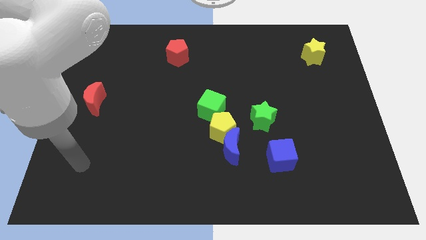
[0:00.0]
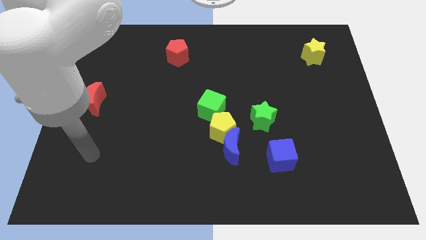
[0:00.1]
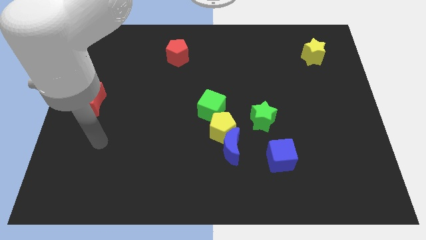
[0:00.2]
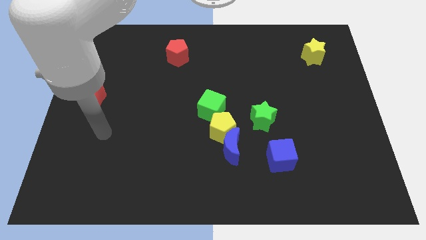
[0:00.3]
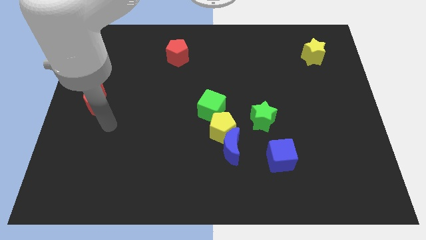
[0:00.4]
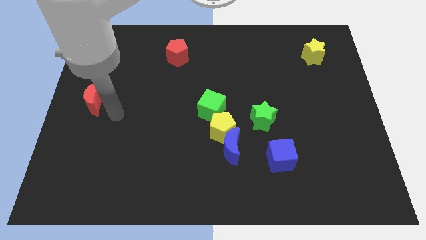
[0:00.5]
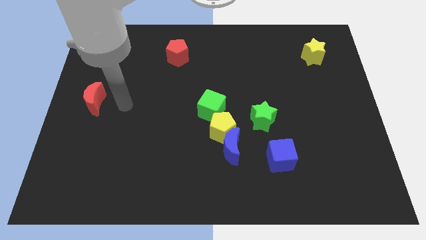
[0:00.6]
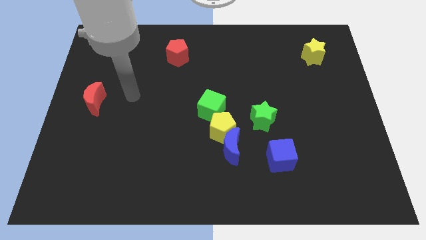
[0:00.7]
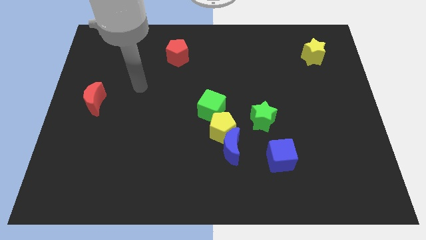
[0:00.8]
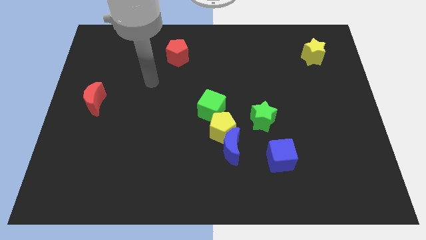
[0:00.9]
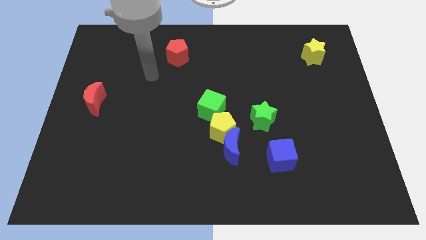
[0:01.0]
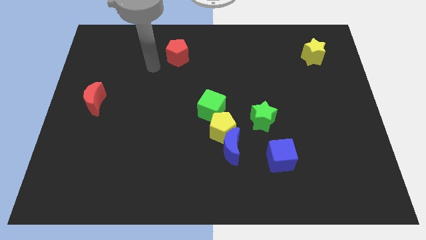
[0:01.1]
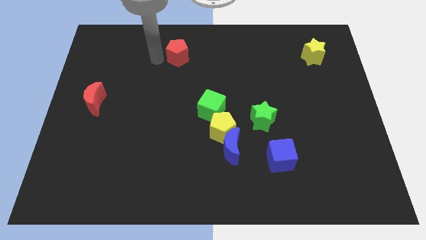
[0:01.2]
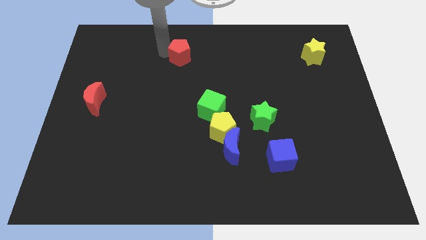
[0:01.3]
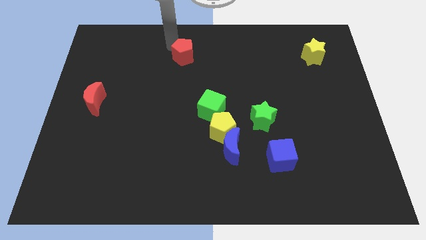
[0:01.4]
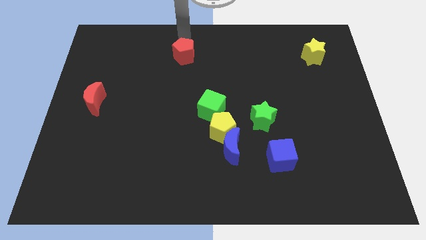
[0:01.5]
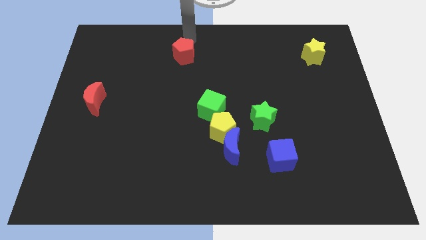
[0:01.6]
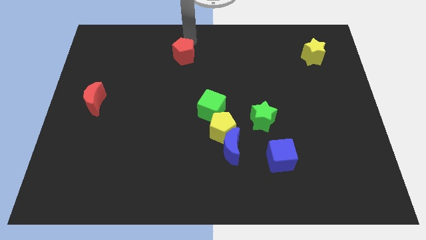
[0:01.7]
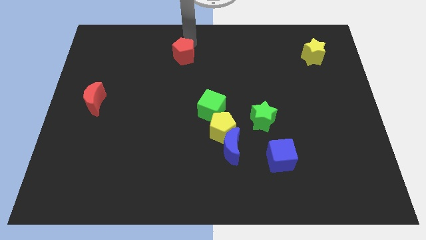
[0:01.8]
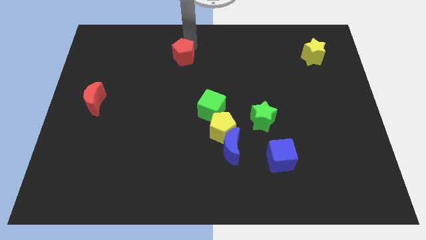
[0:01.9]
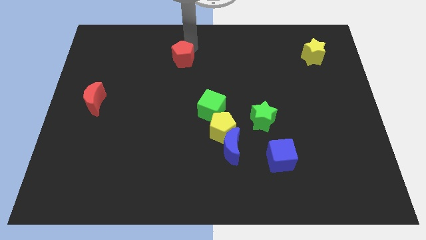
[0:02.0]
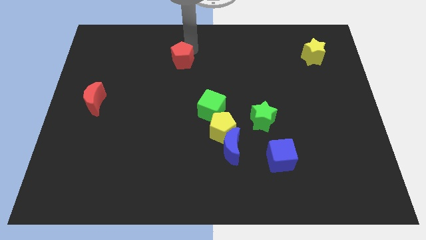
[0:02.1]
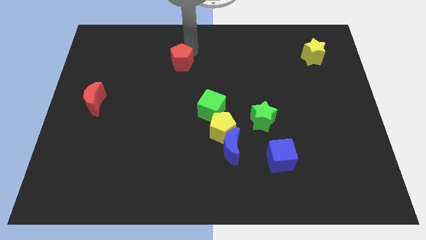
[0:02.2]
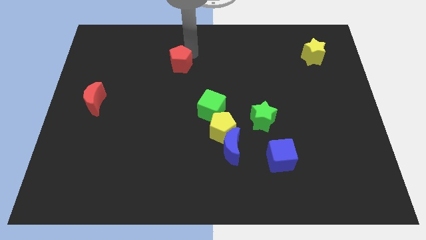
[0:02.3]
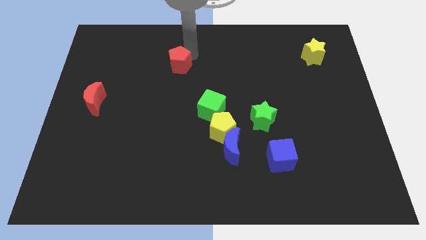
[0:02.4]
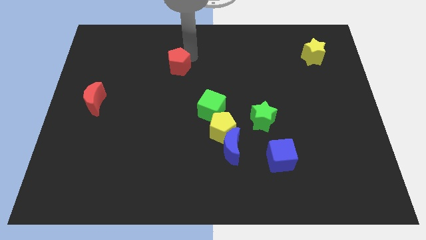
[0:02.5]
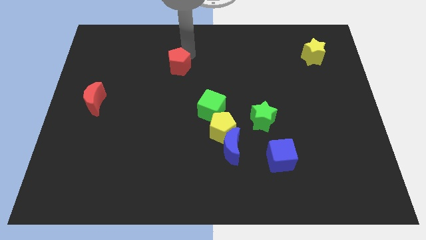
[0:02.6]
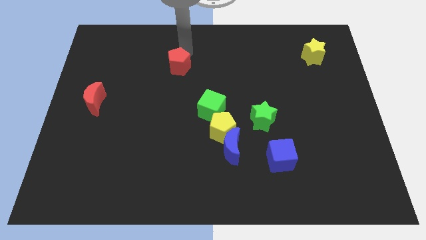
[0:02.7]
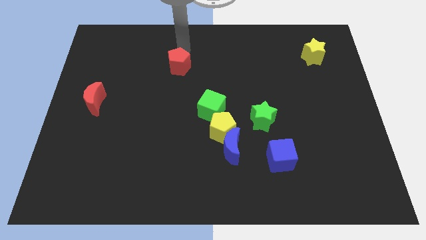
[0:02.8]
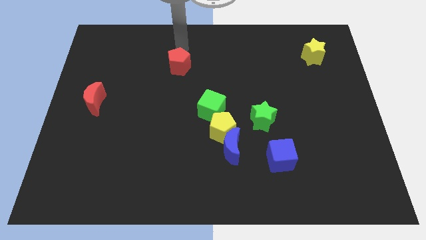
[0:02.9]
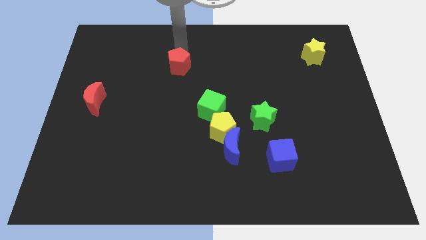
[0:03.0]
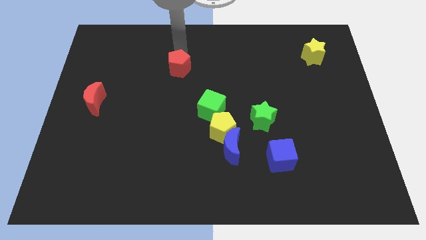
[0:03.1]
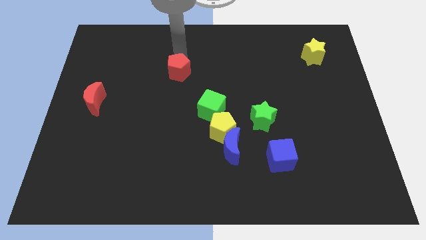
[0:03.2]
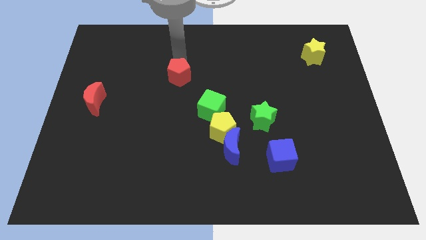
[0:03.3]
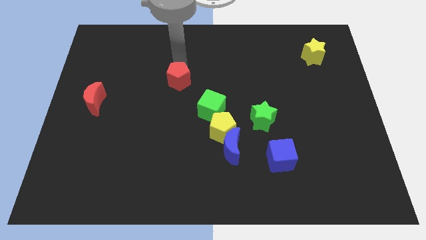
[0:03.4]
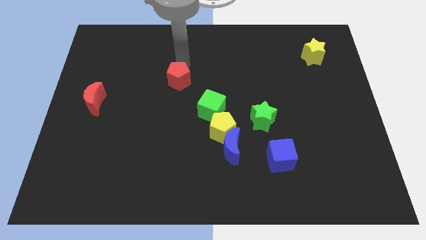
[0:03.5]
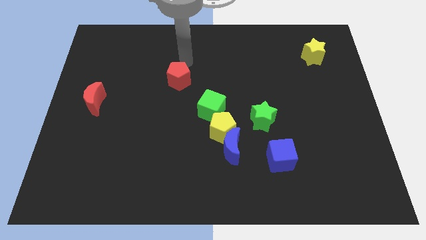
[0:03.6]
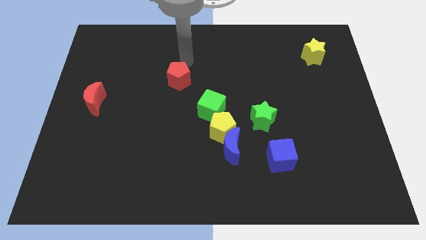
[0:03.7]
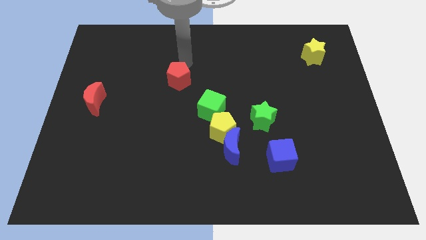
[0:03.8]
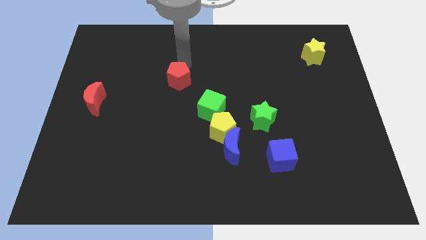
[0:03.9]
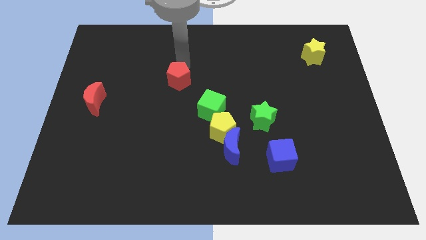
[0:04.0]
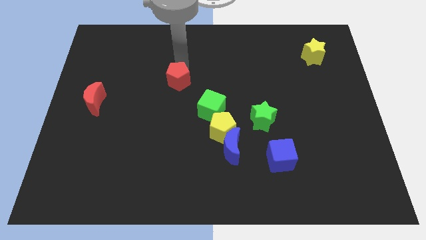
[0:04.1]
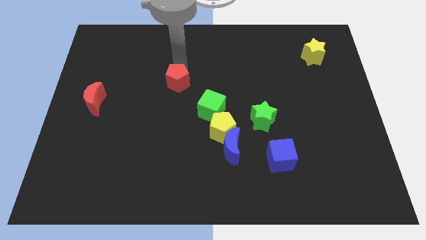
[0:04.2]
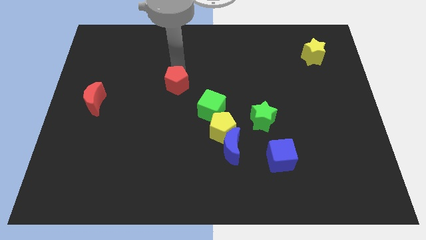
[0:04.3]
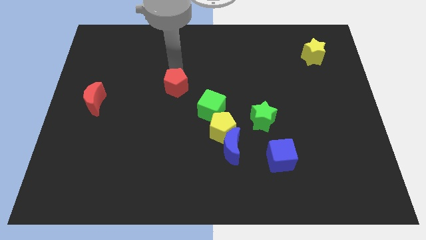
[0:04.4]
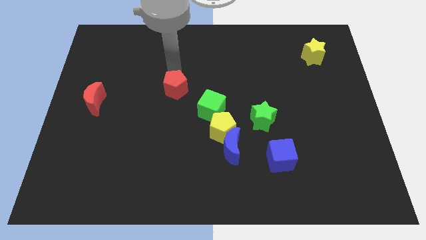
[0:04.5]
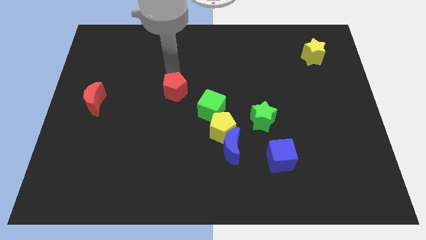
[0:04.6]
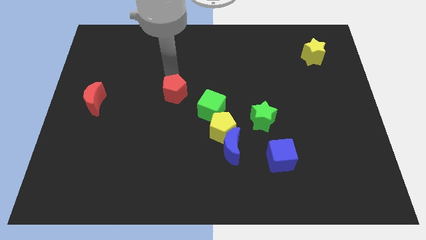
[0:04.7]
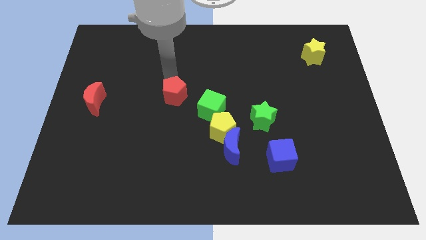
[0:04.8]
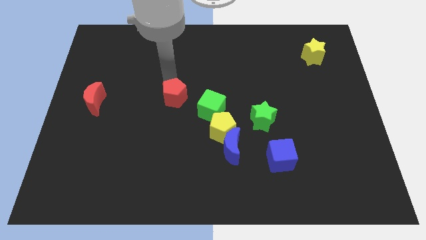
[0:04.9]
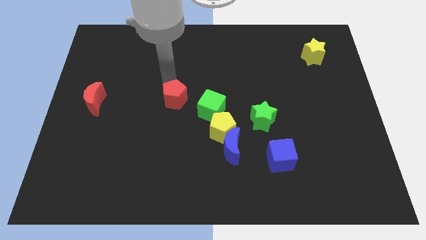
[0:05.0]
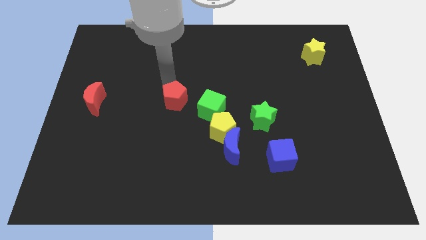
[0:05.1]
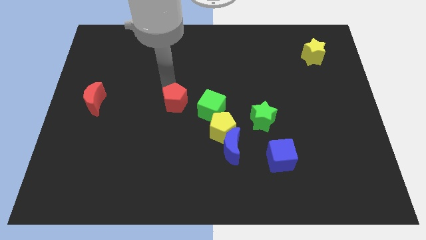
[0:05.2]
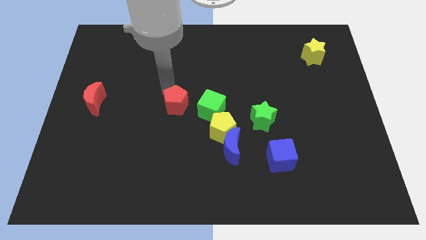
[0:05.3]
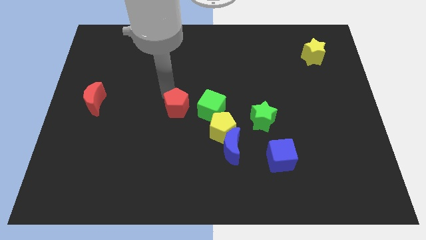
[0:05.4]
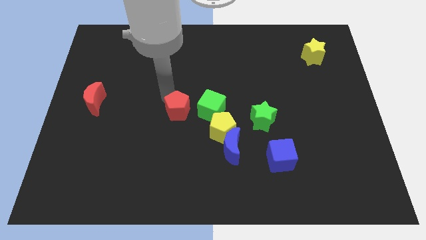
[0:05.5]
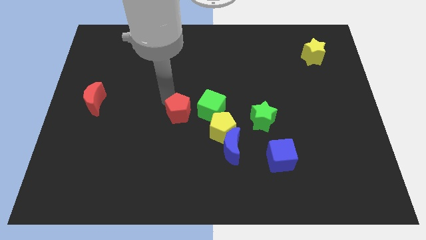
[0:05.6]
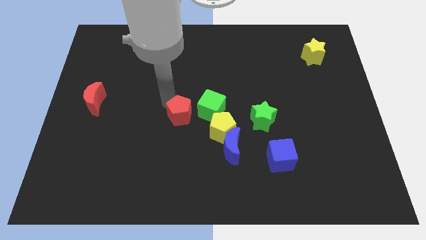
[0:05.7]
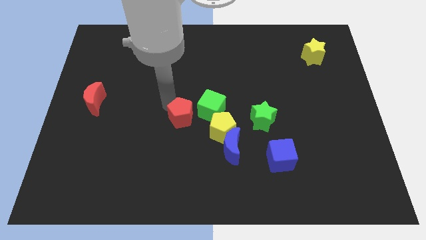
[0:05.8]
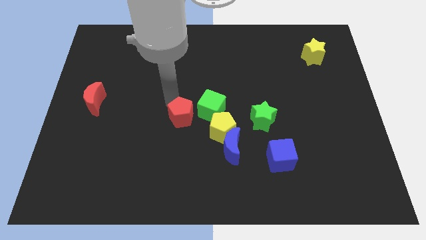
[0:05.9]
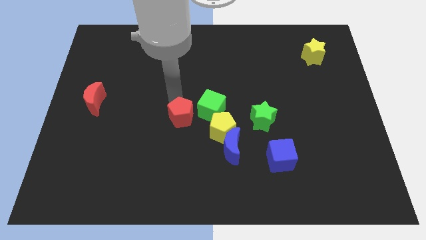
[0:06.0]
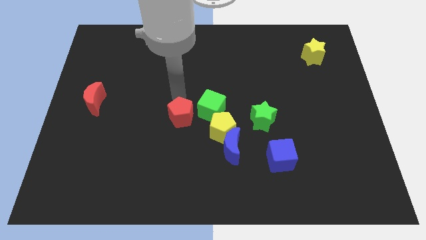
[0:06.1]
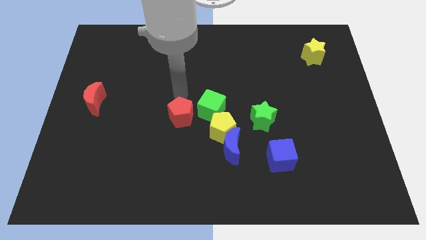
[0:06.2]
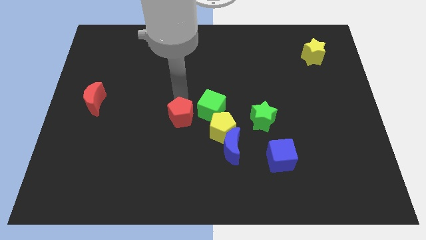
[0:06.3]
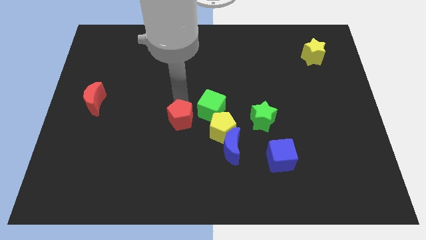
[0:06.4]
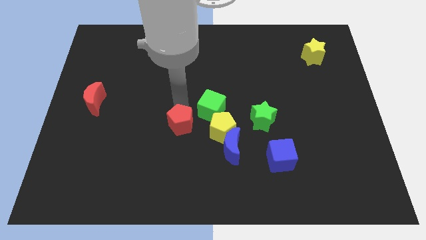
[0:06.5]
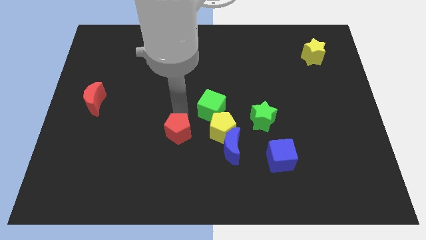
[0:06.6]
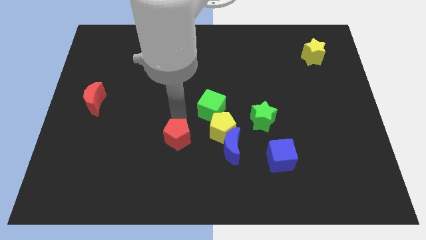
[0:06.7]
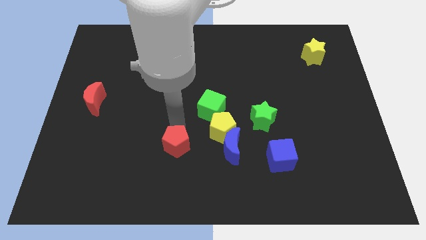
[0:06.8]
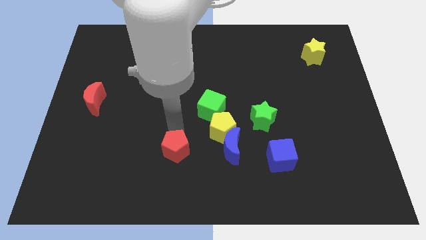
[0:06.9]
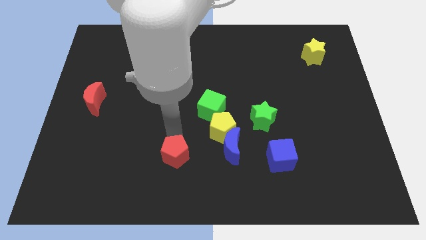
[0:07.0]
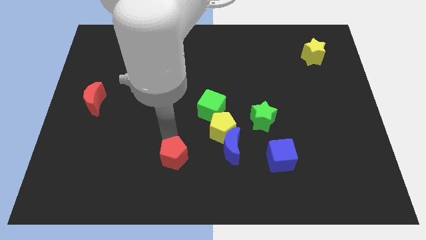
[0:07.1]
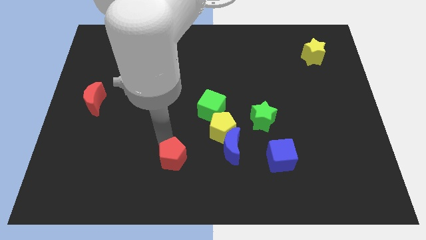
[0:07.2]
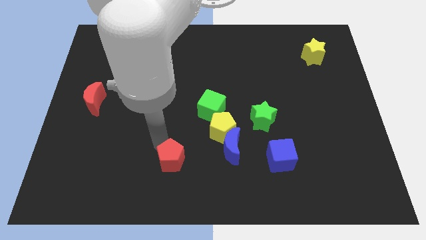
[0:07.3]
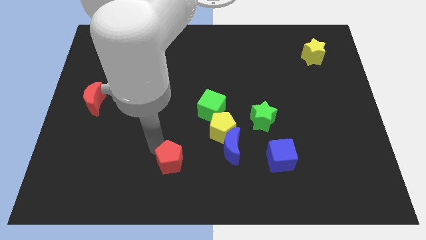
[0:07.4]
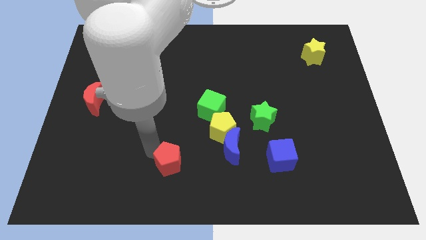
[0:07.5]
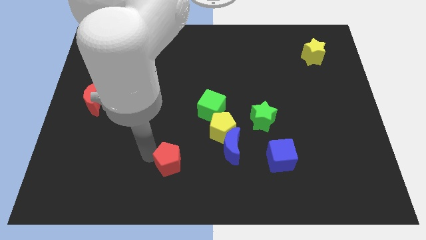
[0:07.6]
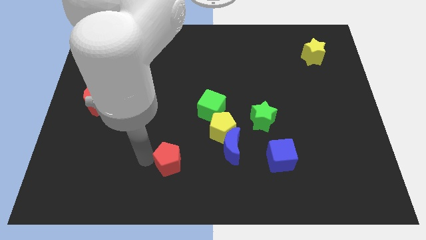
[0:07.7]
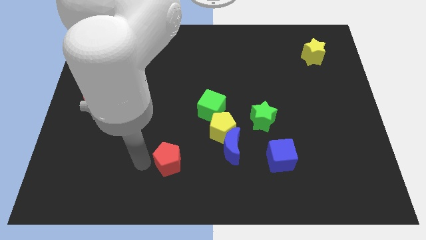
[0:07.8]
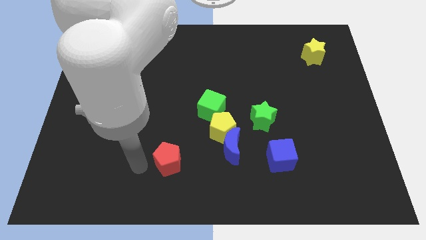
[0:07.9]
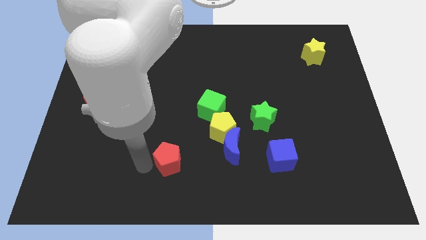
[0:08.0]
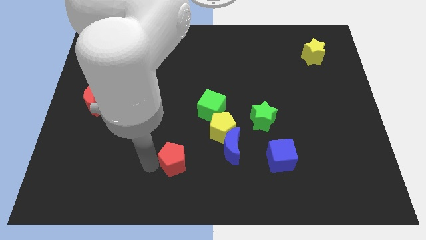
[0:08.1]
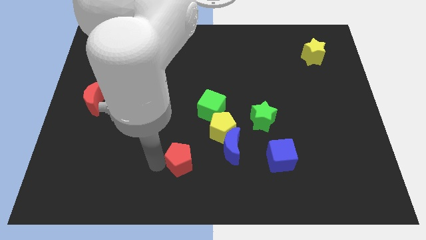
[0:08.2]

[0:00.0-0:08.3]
move the red pentagon to the bottom
